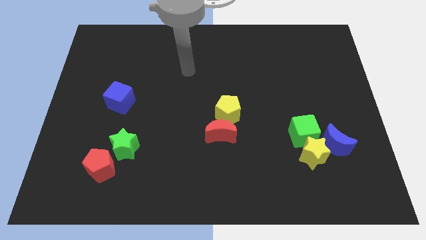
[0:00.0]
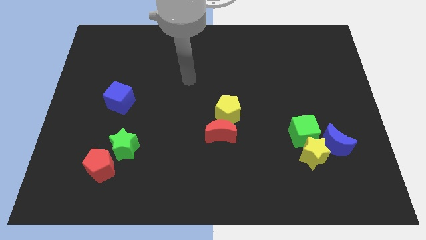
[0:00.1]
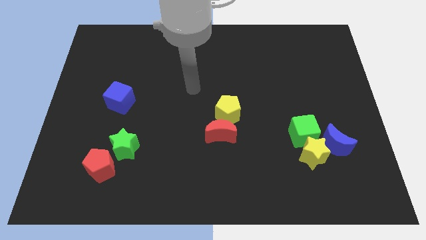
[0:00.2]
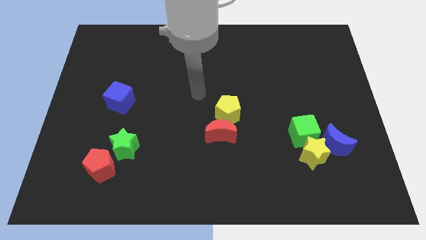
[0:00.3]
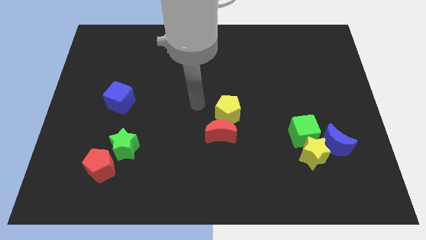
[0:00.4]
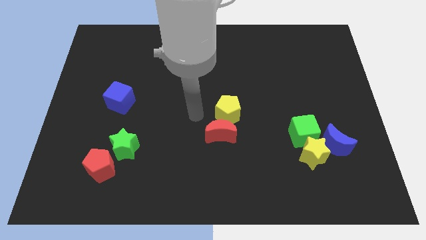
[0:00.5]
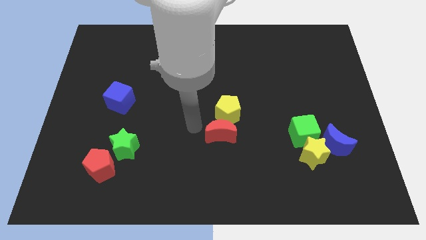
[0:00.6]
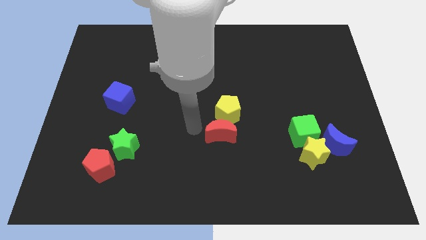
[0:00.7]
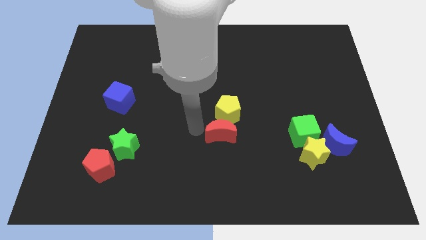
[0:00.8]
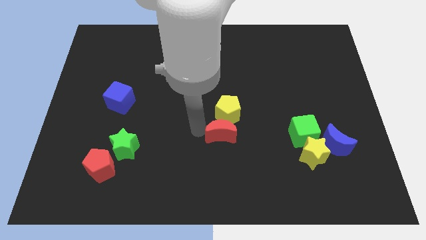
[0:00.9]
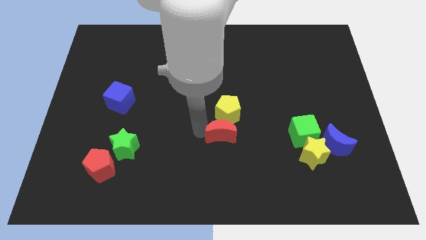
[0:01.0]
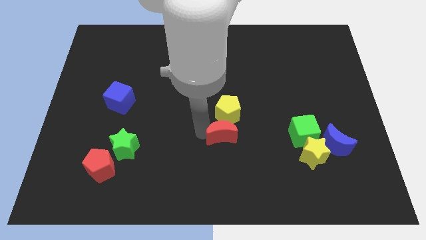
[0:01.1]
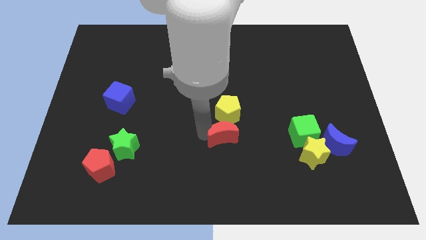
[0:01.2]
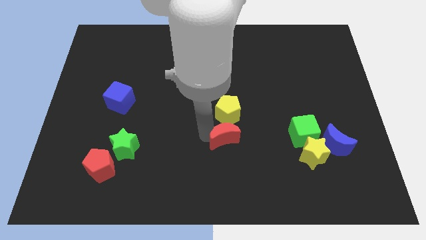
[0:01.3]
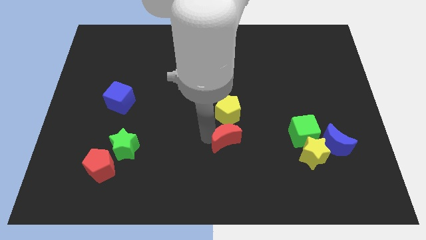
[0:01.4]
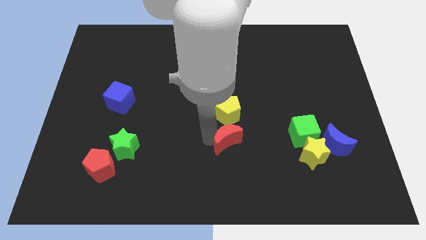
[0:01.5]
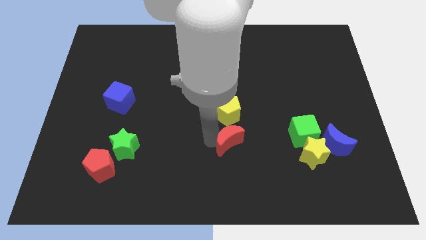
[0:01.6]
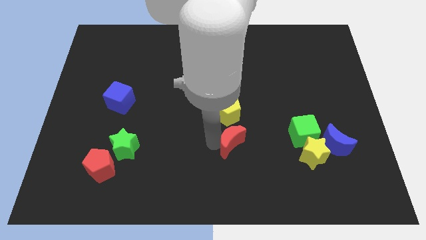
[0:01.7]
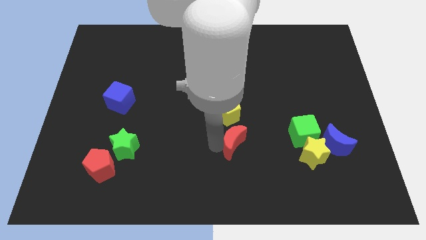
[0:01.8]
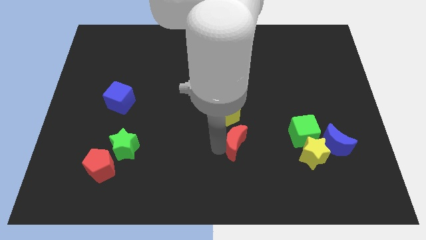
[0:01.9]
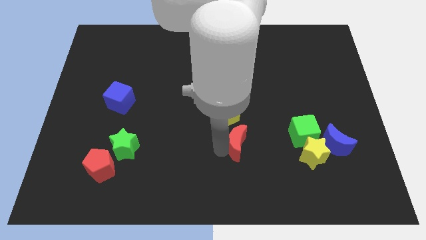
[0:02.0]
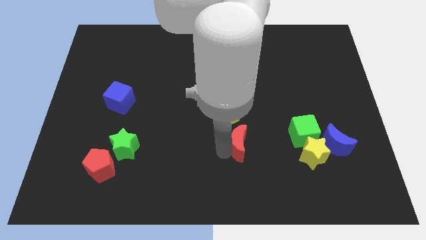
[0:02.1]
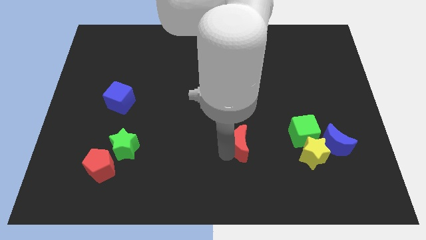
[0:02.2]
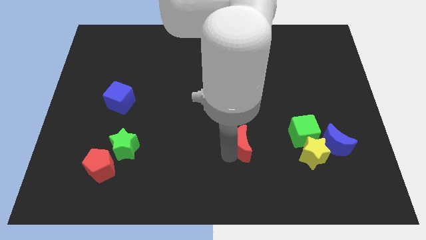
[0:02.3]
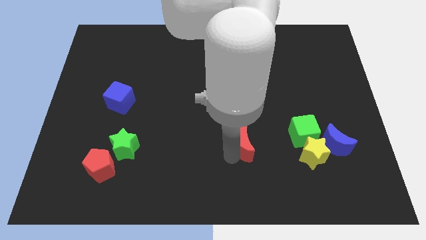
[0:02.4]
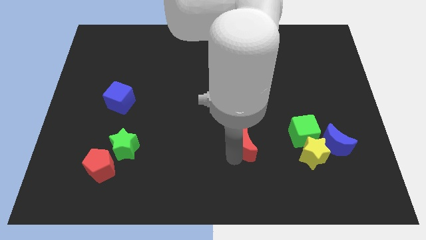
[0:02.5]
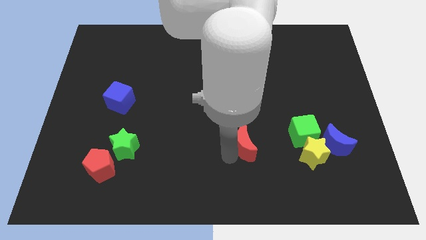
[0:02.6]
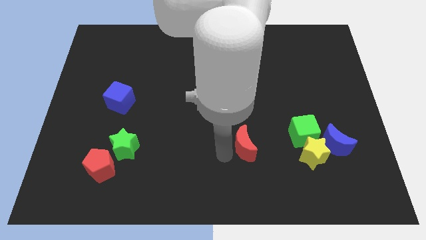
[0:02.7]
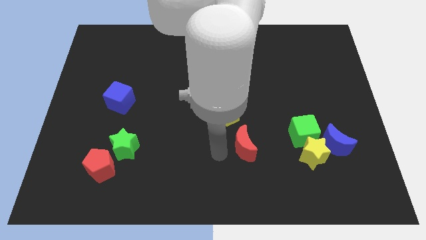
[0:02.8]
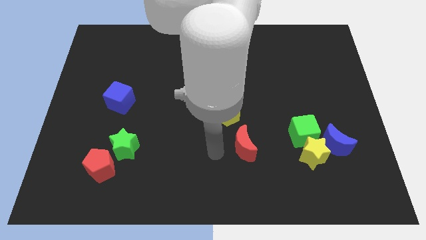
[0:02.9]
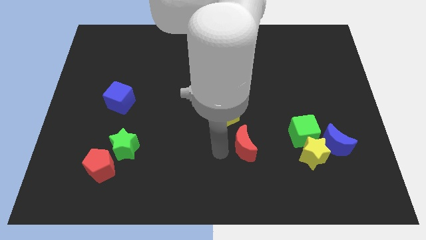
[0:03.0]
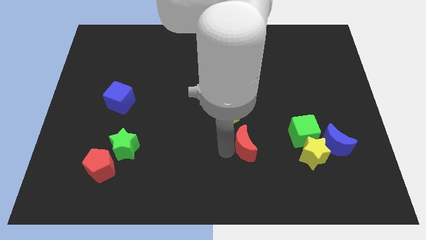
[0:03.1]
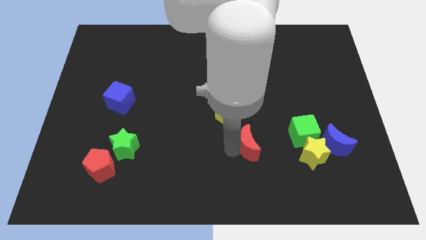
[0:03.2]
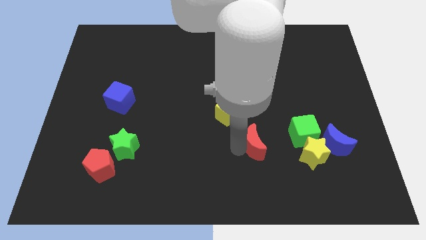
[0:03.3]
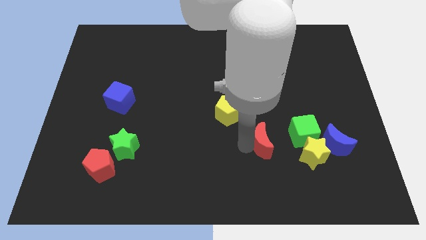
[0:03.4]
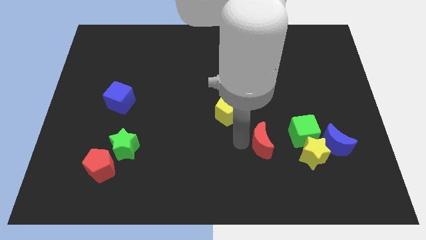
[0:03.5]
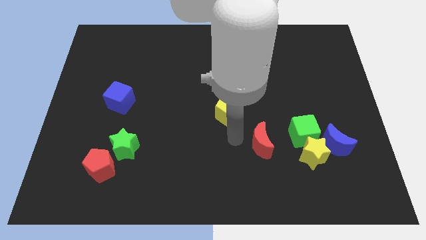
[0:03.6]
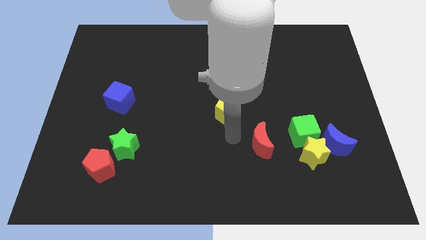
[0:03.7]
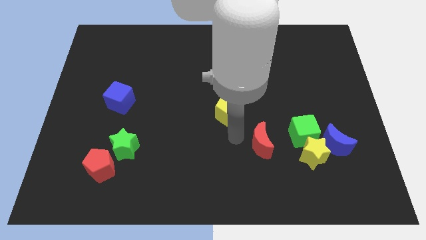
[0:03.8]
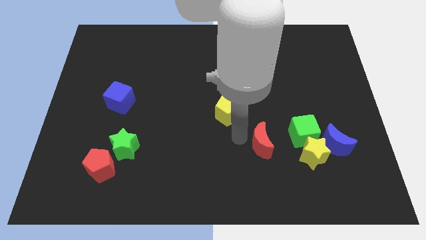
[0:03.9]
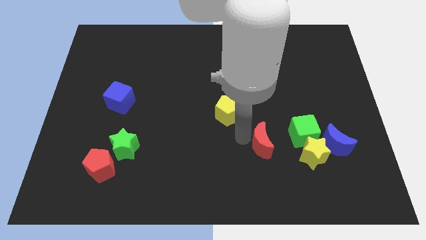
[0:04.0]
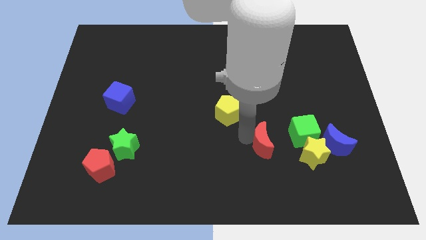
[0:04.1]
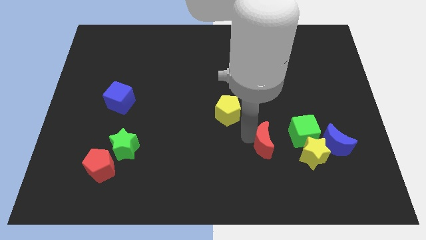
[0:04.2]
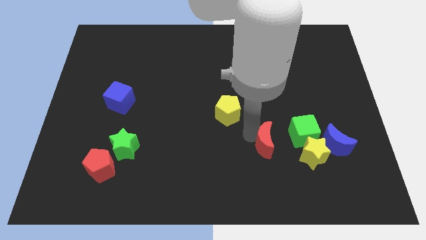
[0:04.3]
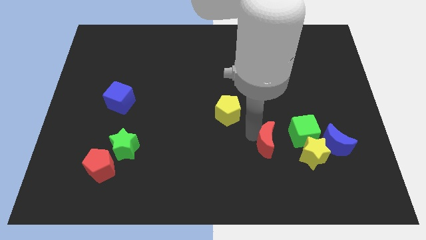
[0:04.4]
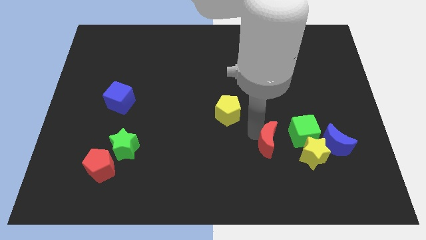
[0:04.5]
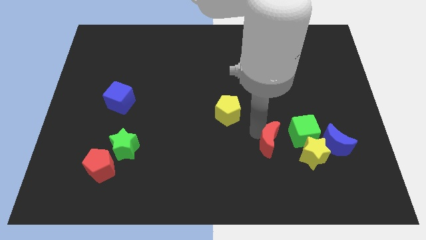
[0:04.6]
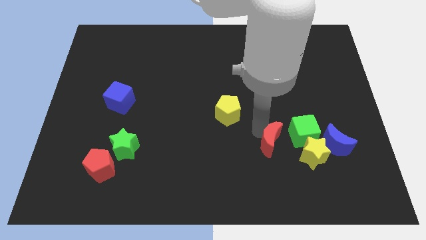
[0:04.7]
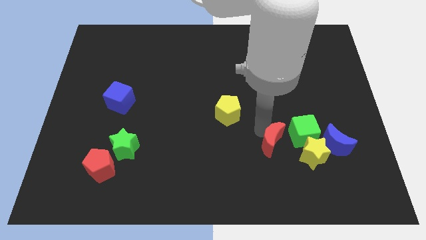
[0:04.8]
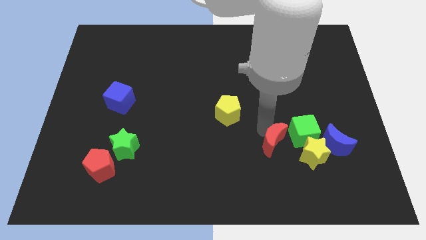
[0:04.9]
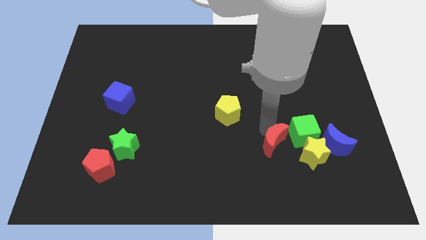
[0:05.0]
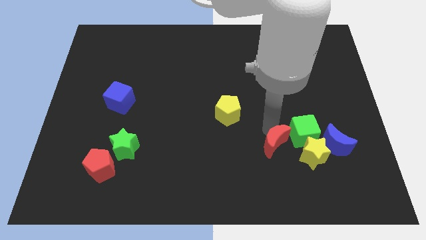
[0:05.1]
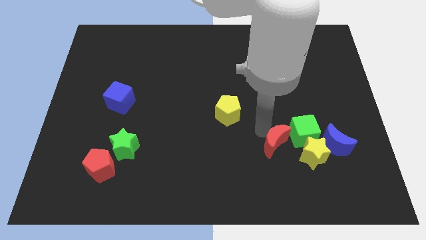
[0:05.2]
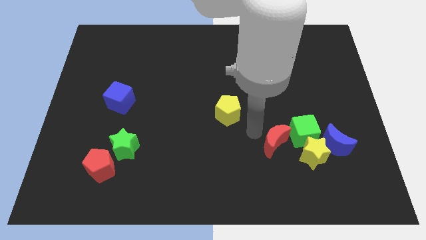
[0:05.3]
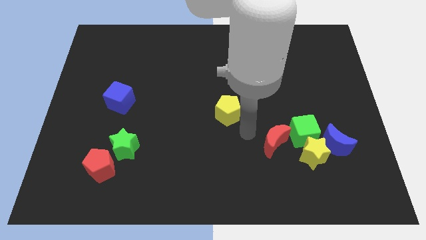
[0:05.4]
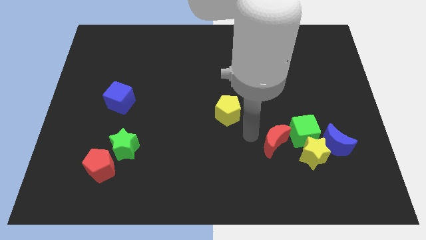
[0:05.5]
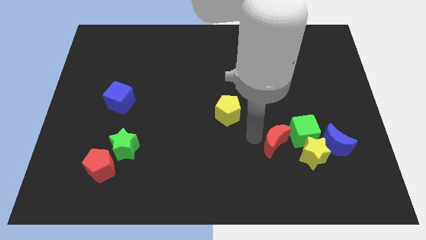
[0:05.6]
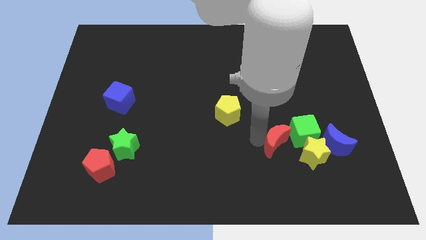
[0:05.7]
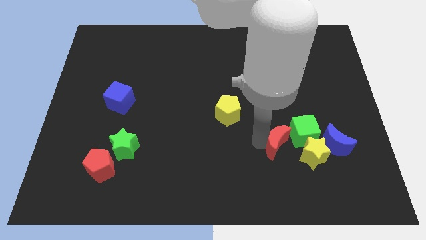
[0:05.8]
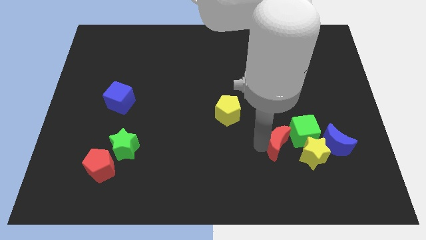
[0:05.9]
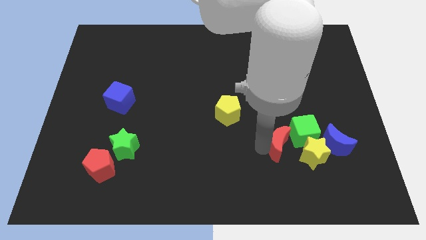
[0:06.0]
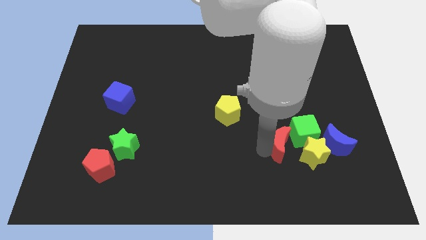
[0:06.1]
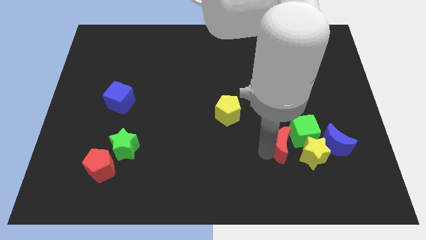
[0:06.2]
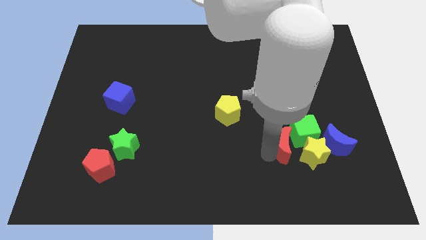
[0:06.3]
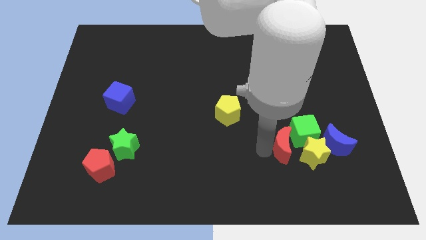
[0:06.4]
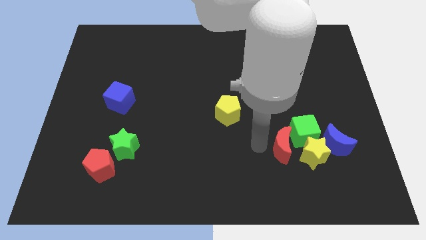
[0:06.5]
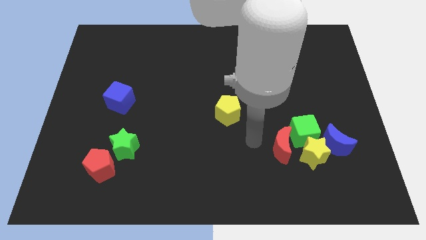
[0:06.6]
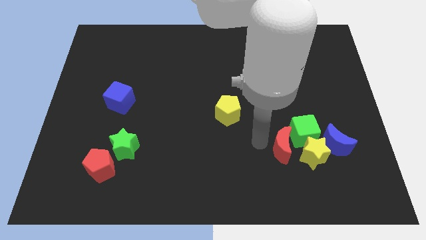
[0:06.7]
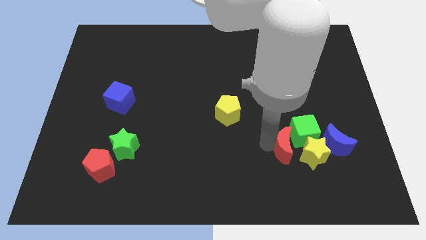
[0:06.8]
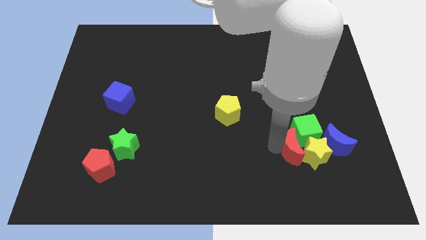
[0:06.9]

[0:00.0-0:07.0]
slide the red moon close to the yellow star

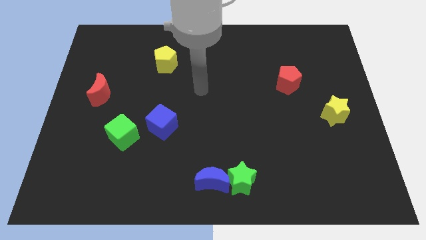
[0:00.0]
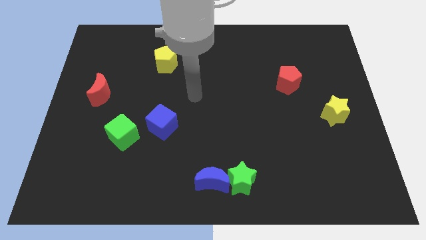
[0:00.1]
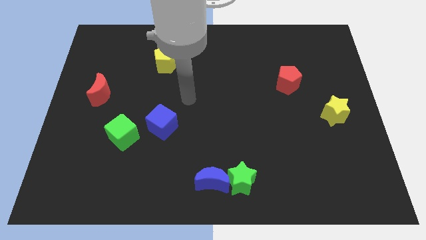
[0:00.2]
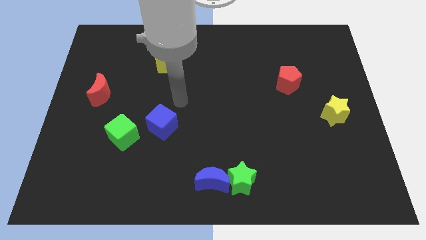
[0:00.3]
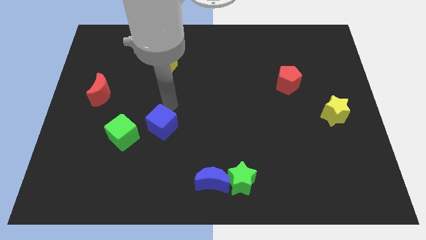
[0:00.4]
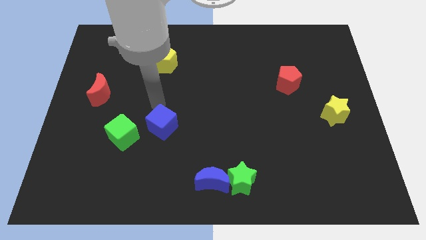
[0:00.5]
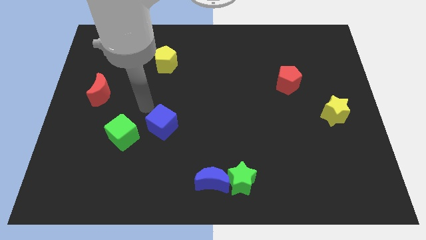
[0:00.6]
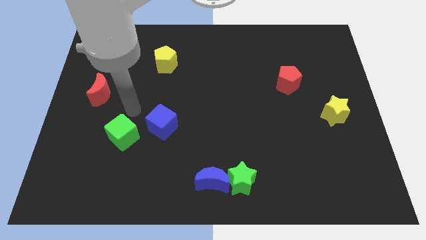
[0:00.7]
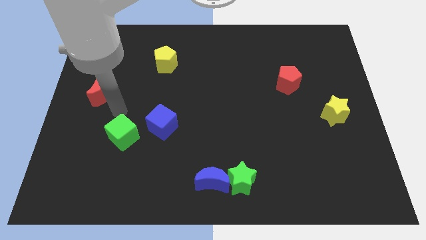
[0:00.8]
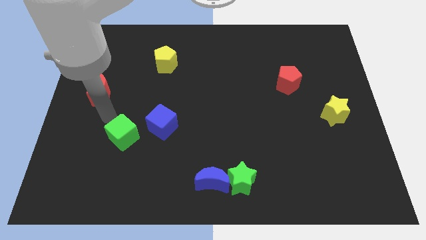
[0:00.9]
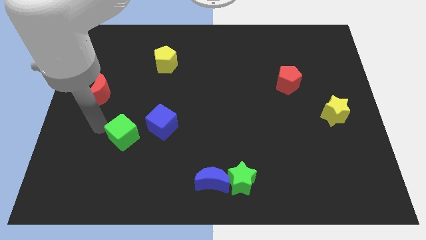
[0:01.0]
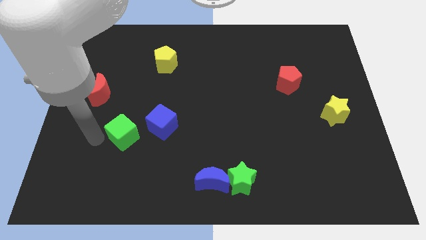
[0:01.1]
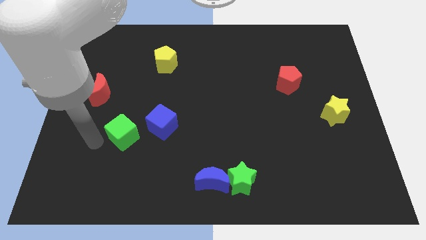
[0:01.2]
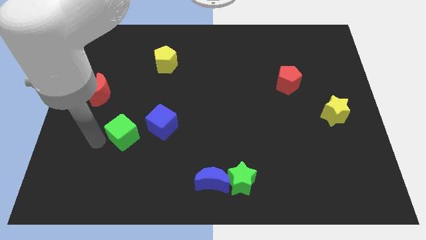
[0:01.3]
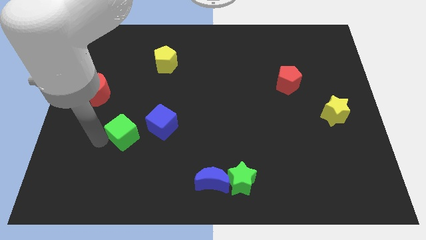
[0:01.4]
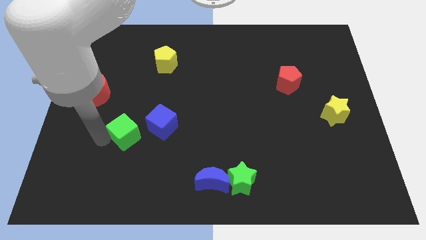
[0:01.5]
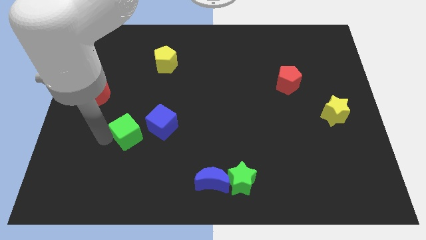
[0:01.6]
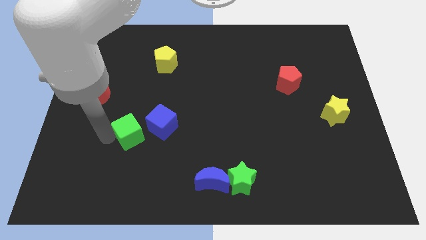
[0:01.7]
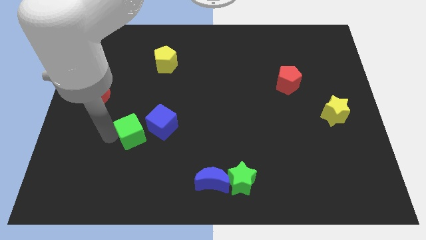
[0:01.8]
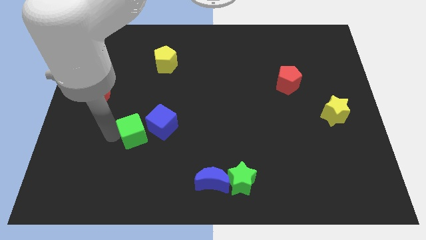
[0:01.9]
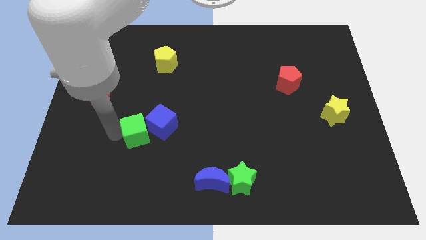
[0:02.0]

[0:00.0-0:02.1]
put the green cube next to the blue cube
